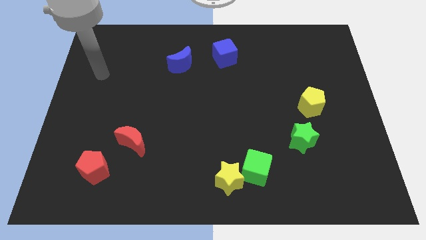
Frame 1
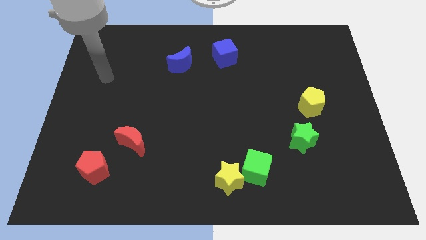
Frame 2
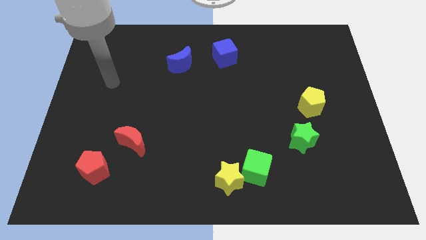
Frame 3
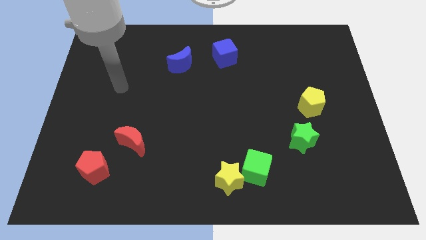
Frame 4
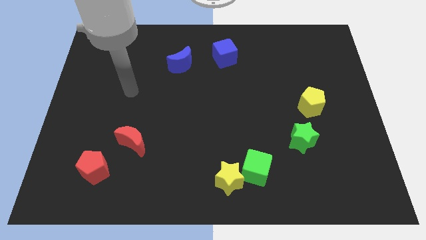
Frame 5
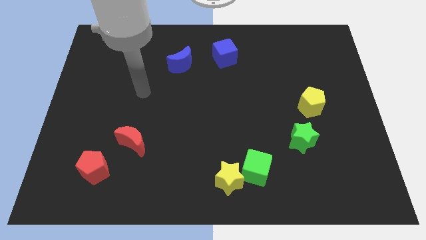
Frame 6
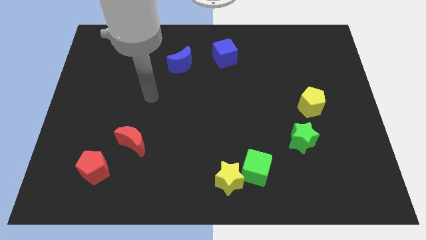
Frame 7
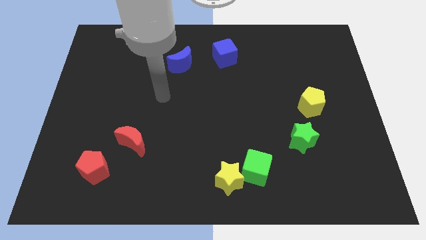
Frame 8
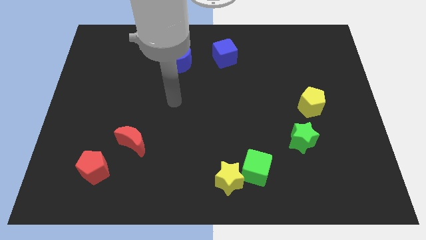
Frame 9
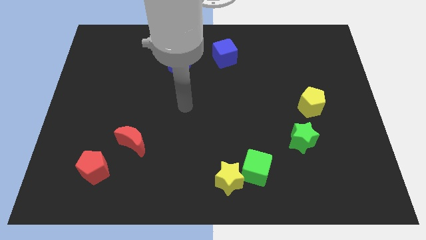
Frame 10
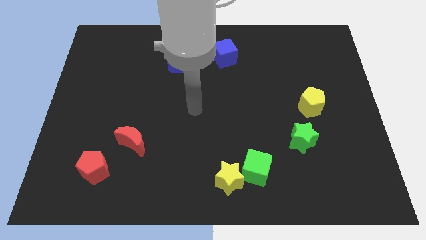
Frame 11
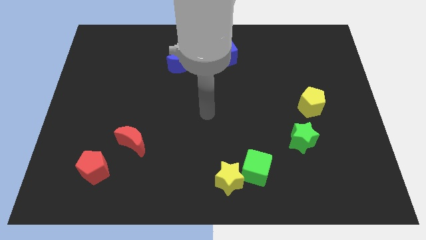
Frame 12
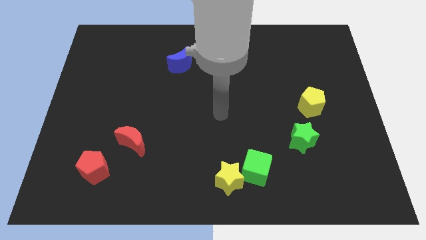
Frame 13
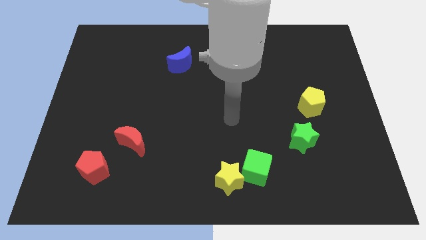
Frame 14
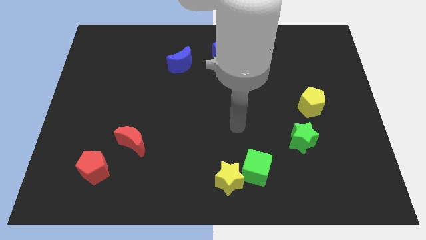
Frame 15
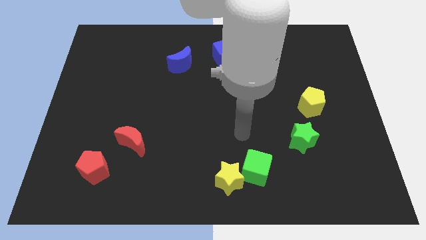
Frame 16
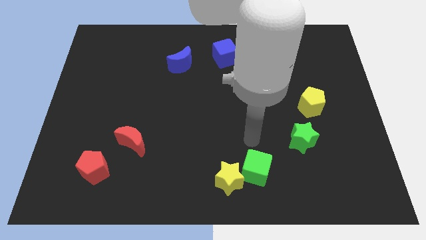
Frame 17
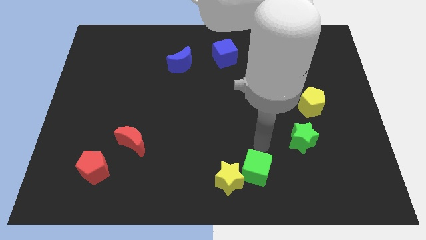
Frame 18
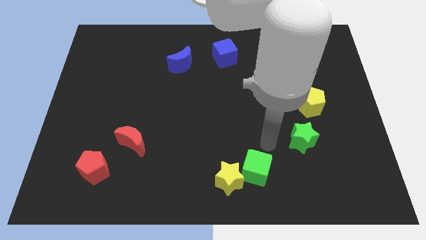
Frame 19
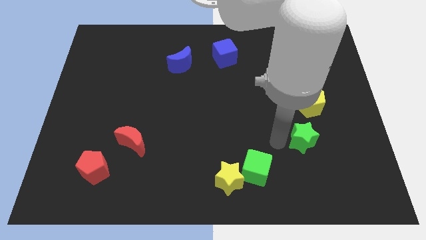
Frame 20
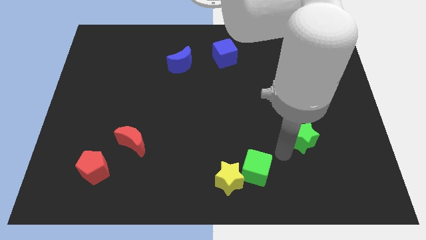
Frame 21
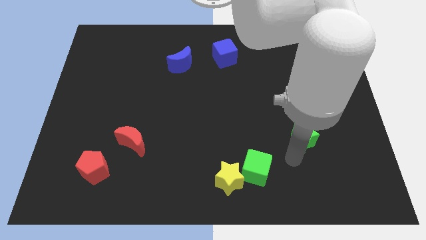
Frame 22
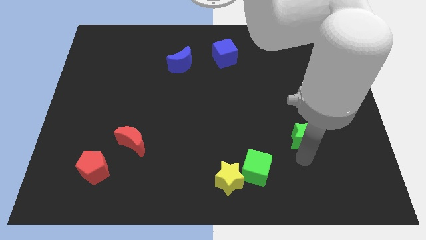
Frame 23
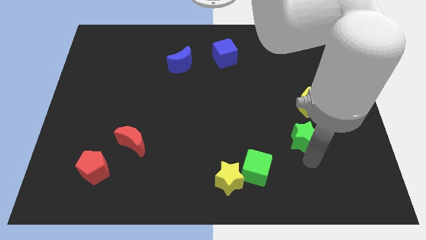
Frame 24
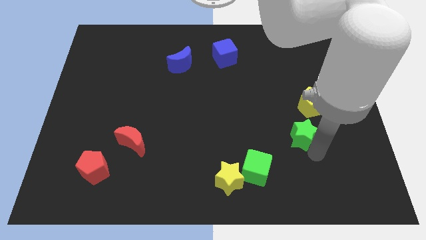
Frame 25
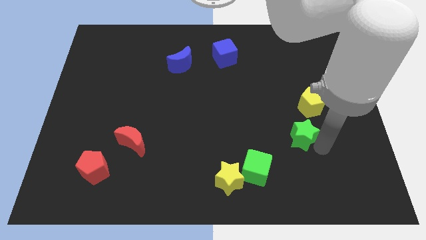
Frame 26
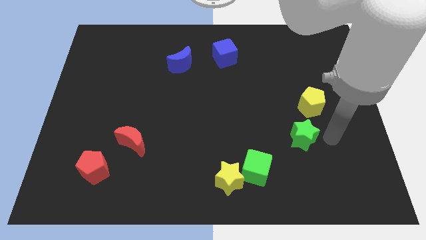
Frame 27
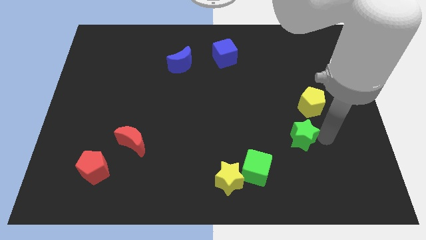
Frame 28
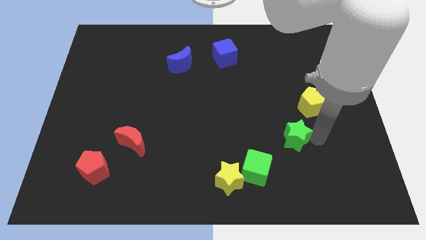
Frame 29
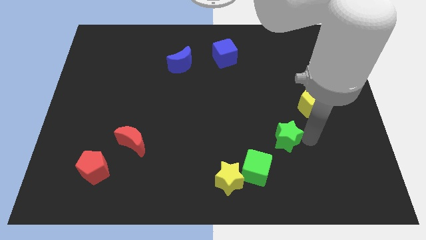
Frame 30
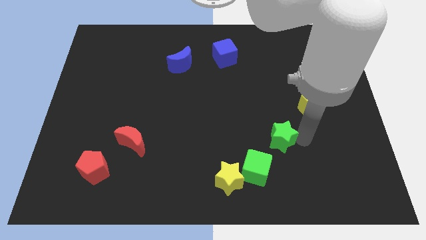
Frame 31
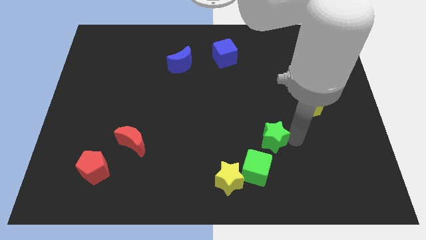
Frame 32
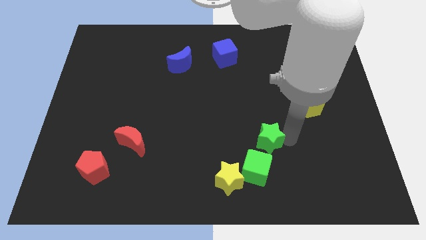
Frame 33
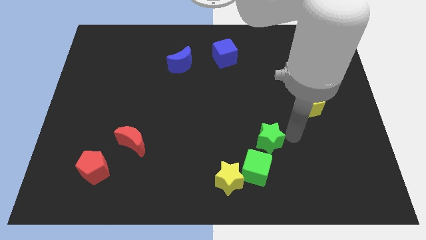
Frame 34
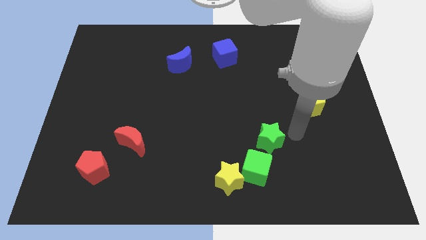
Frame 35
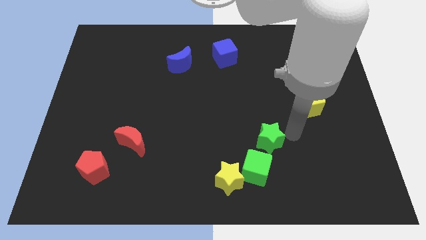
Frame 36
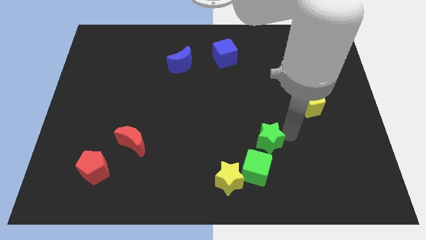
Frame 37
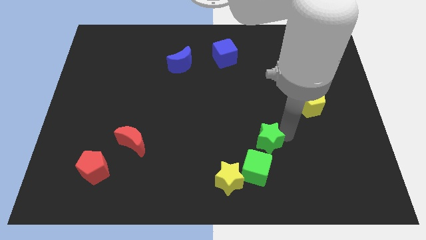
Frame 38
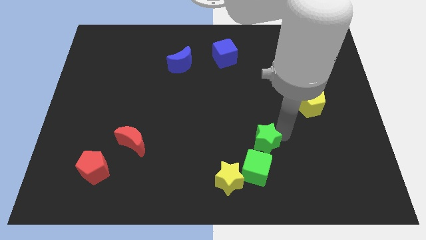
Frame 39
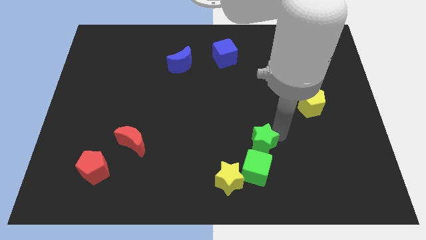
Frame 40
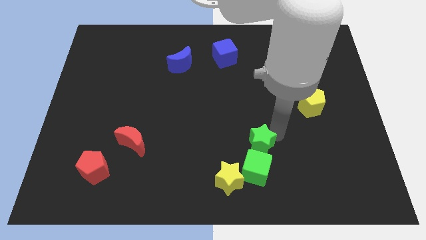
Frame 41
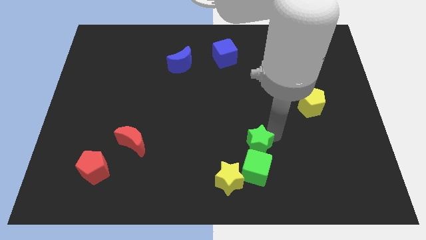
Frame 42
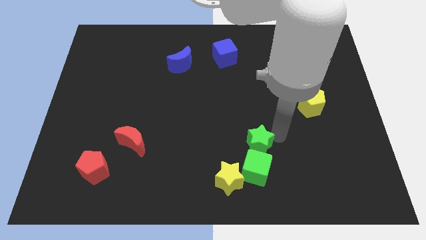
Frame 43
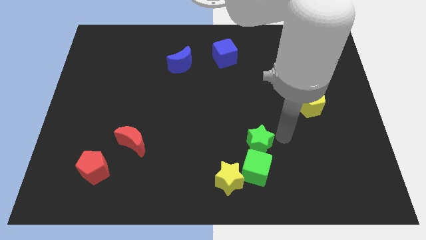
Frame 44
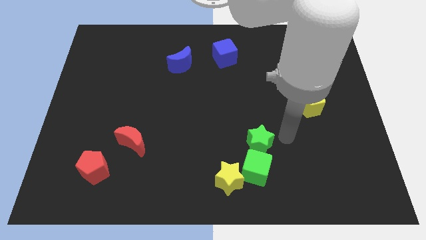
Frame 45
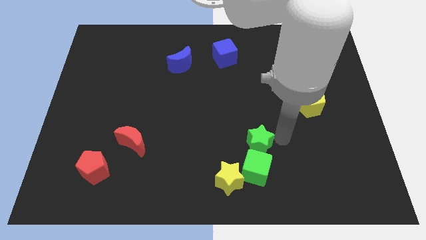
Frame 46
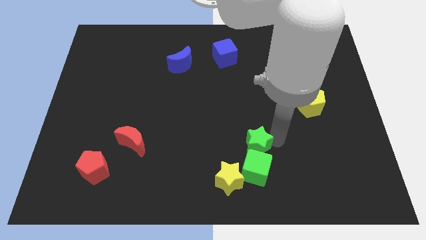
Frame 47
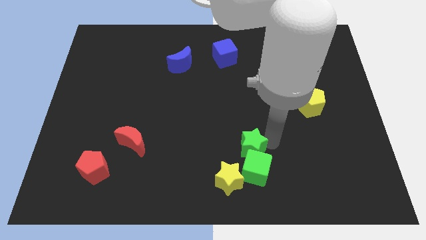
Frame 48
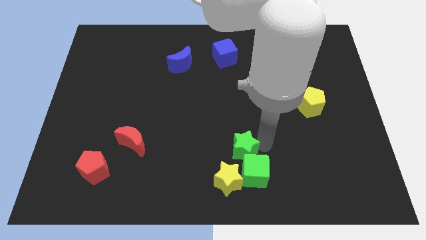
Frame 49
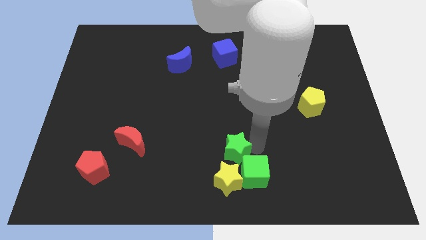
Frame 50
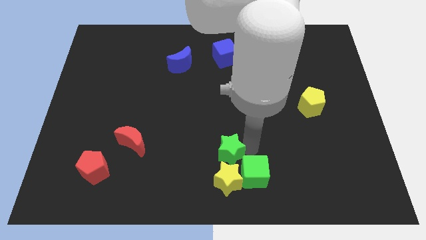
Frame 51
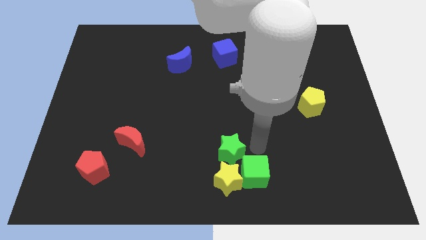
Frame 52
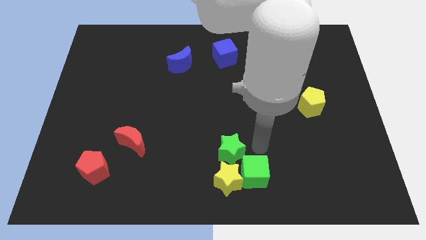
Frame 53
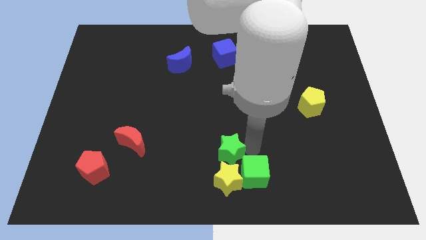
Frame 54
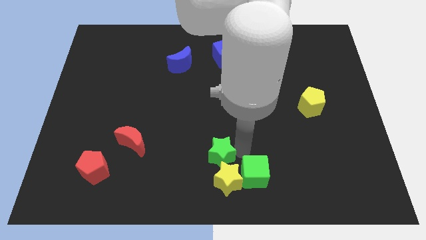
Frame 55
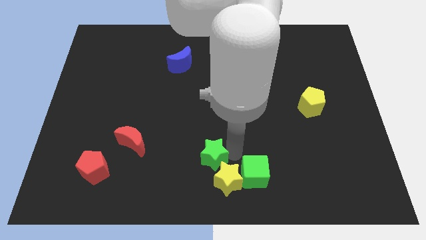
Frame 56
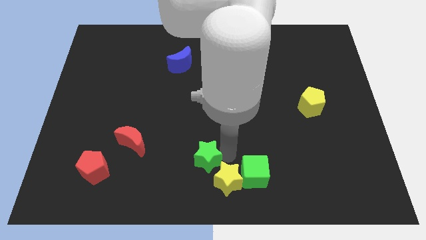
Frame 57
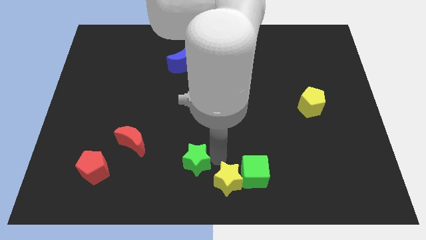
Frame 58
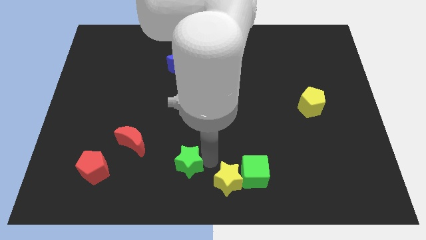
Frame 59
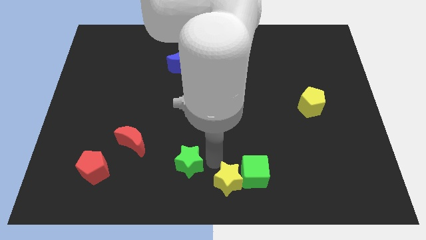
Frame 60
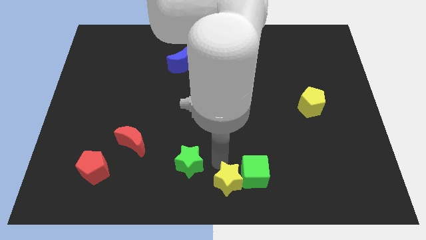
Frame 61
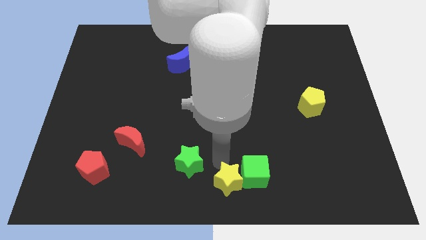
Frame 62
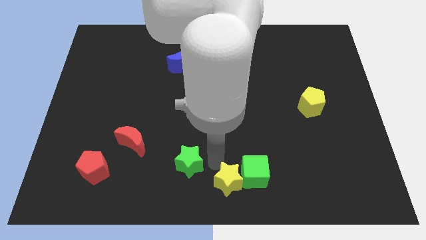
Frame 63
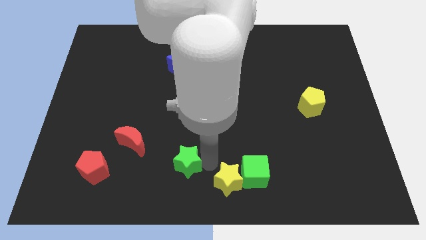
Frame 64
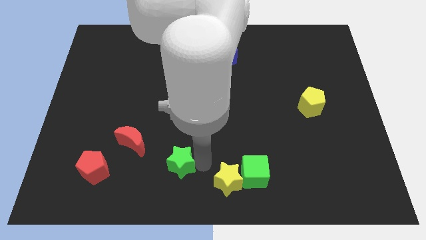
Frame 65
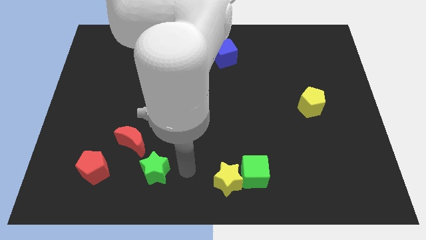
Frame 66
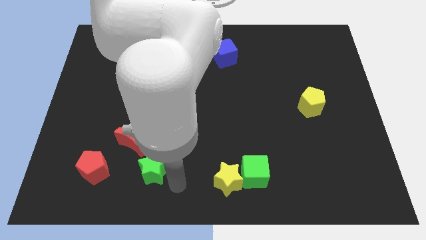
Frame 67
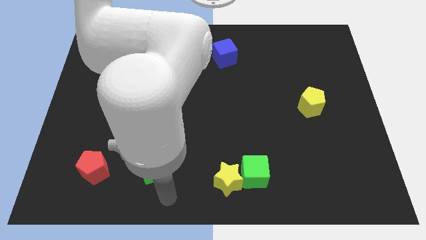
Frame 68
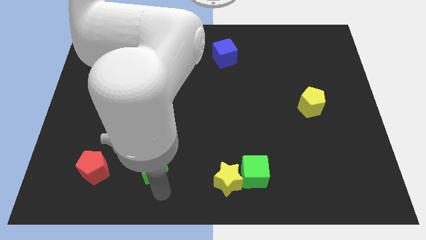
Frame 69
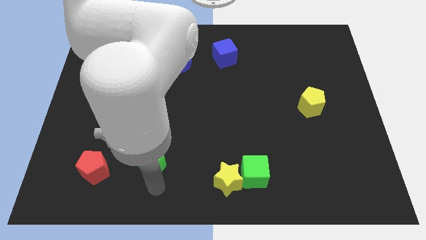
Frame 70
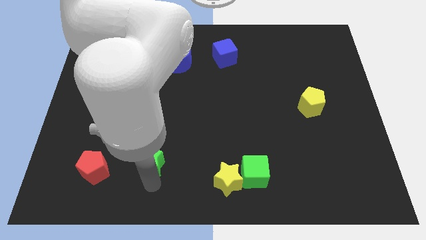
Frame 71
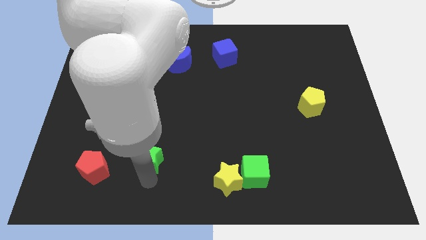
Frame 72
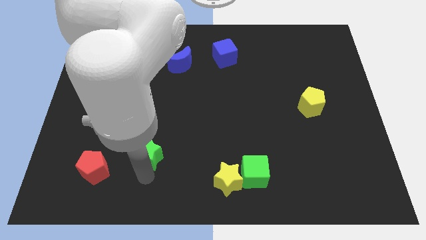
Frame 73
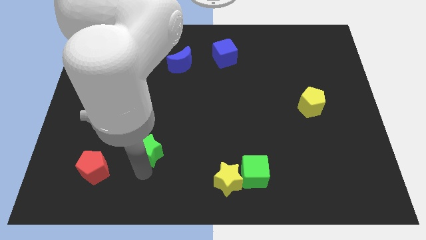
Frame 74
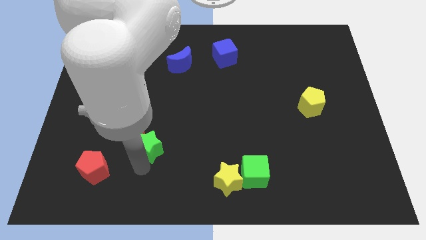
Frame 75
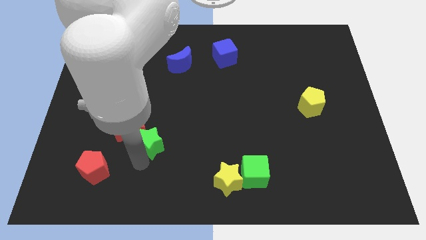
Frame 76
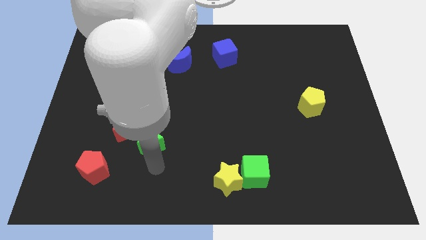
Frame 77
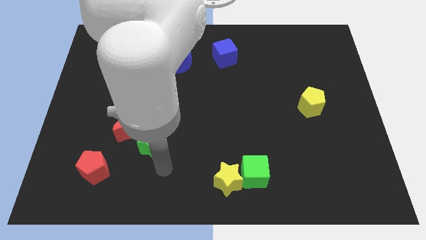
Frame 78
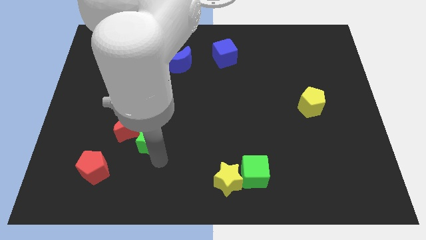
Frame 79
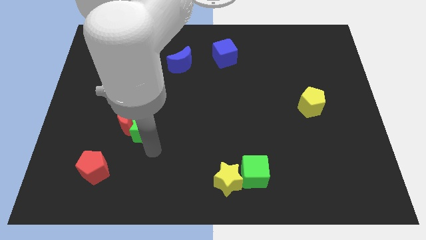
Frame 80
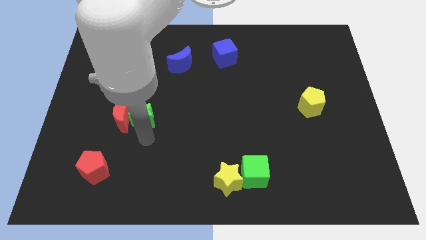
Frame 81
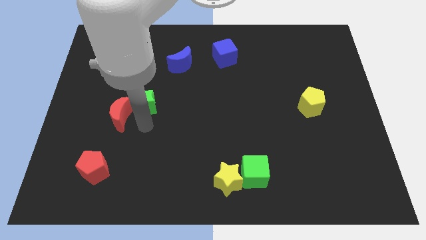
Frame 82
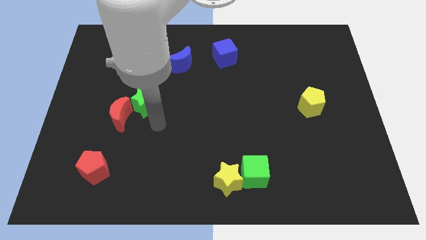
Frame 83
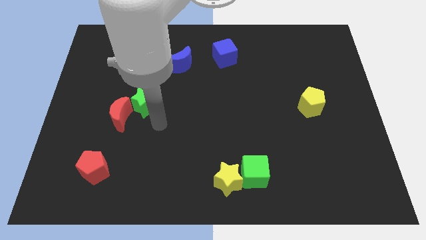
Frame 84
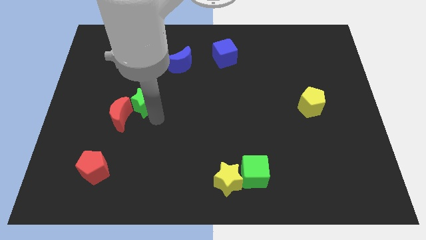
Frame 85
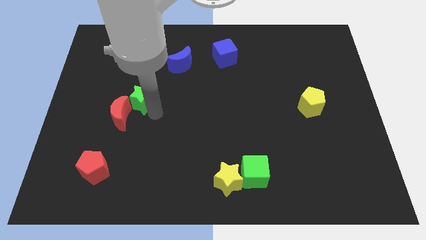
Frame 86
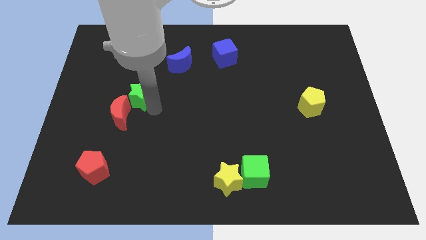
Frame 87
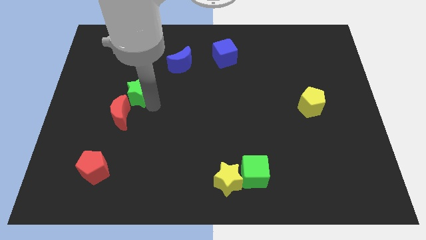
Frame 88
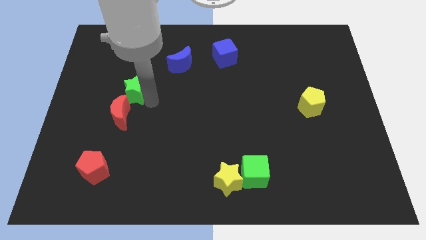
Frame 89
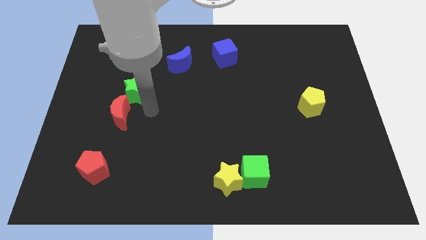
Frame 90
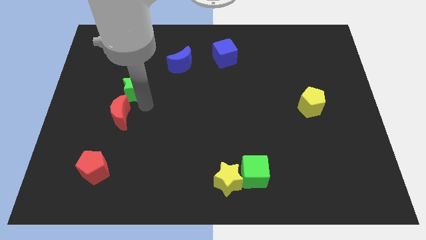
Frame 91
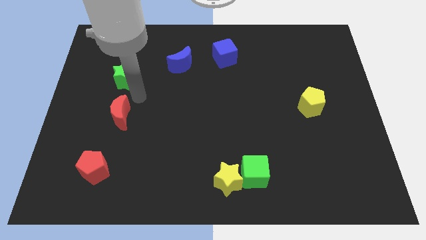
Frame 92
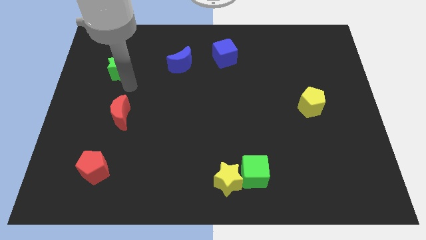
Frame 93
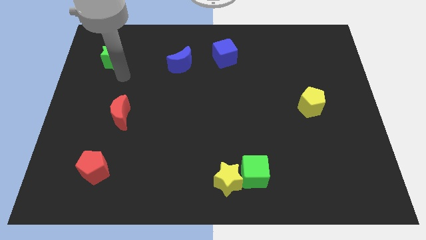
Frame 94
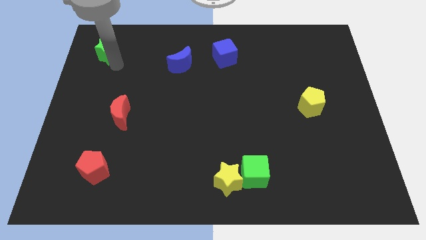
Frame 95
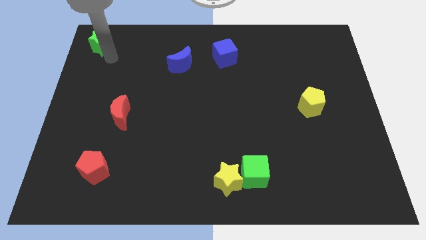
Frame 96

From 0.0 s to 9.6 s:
slide the green star to the top left corner
